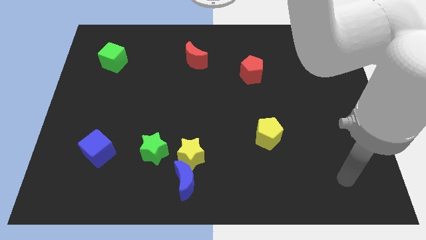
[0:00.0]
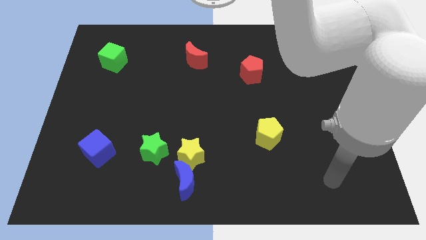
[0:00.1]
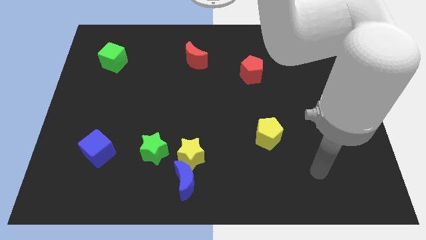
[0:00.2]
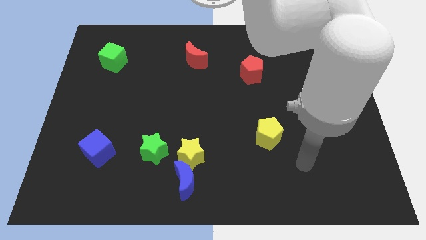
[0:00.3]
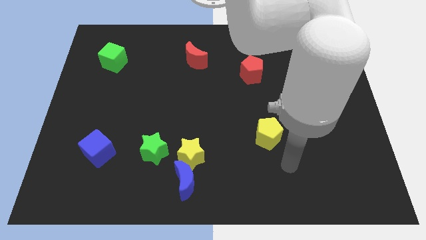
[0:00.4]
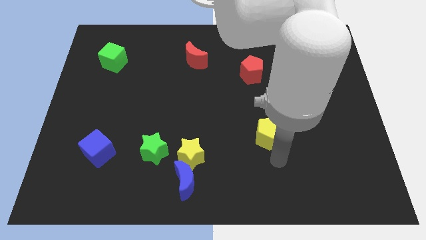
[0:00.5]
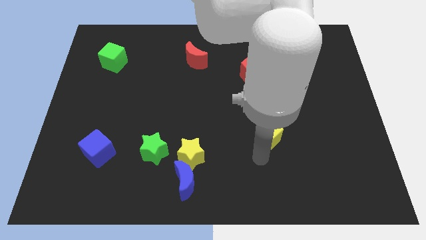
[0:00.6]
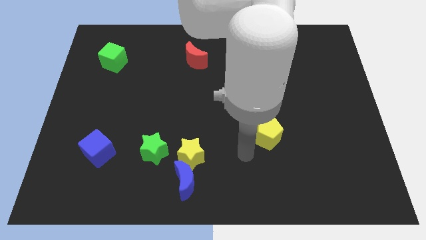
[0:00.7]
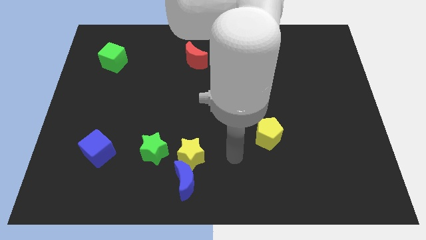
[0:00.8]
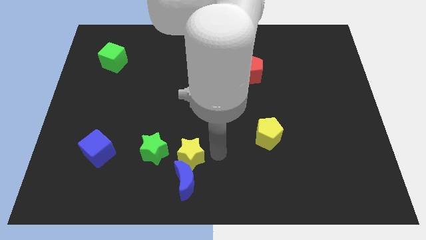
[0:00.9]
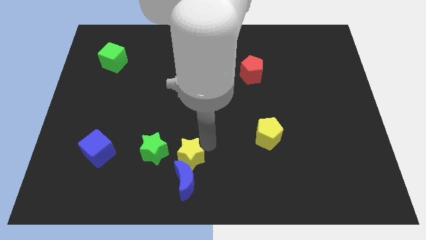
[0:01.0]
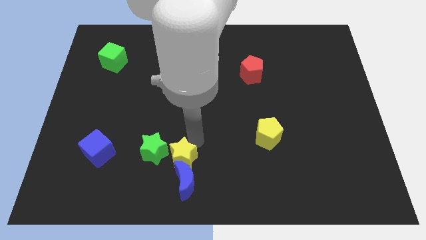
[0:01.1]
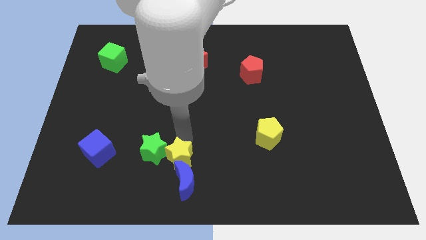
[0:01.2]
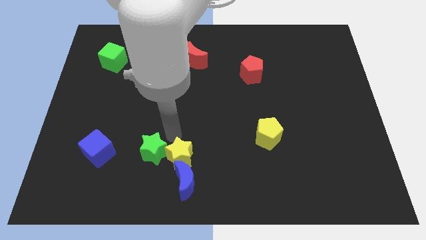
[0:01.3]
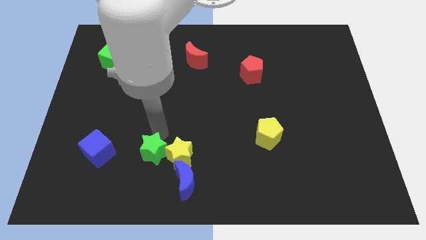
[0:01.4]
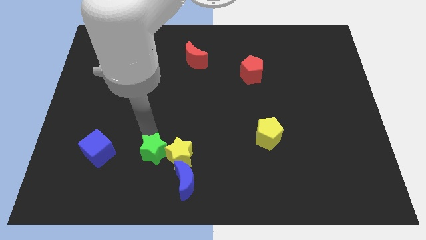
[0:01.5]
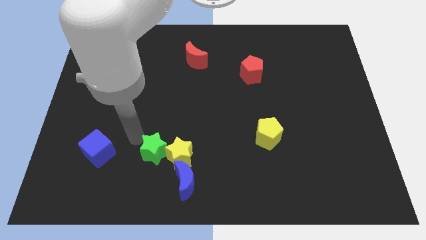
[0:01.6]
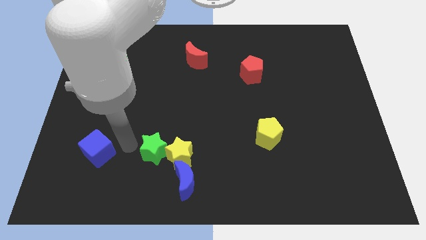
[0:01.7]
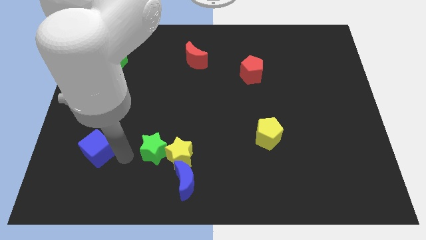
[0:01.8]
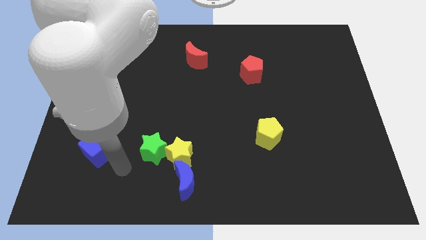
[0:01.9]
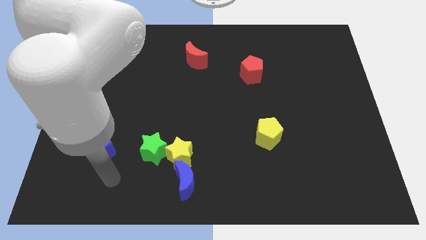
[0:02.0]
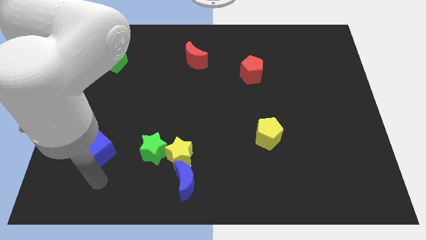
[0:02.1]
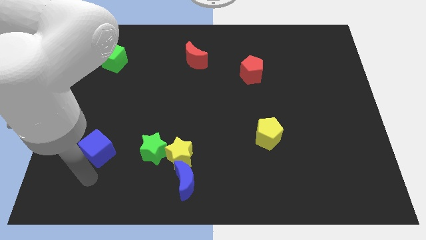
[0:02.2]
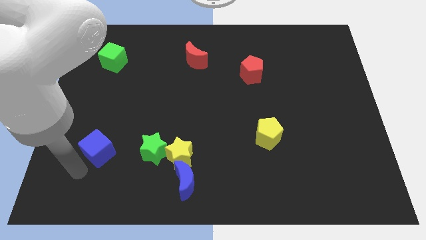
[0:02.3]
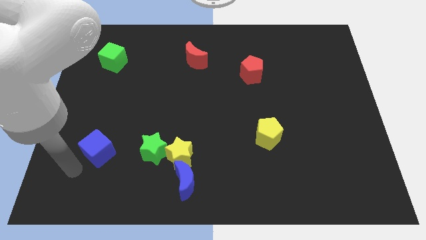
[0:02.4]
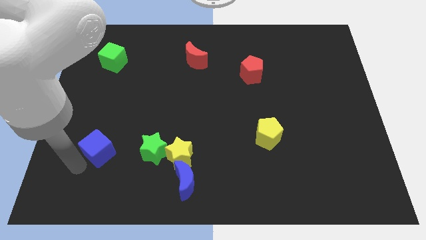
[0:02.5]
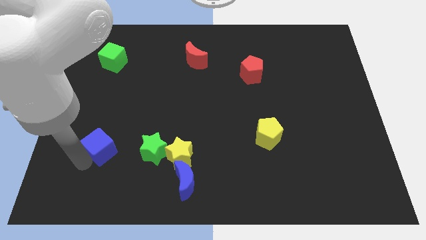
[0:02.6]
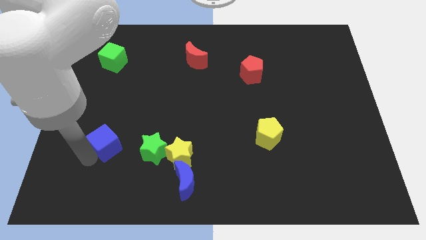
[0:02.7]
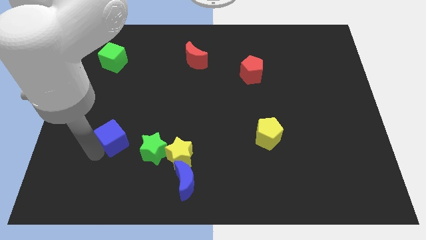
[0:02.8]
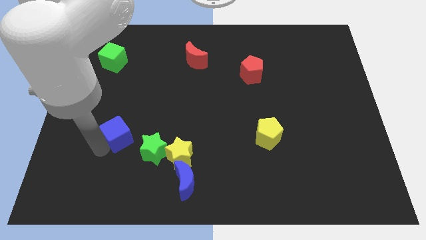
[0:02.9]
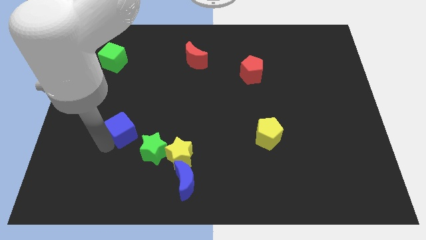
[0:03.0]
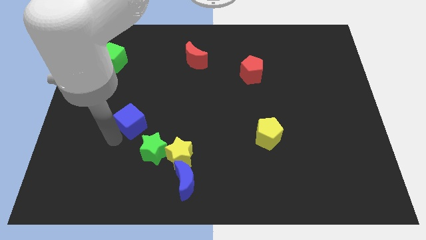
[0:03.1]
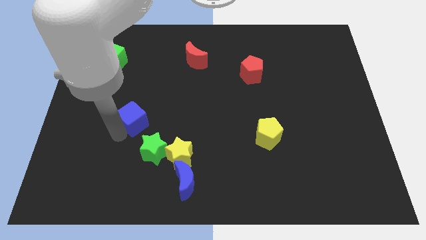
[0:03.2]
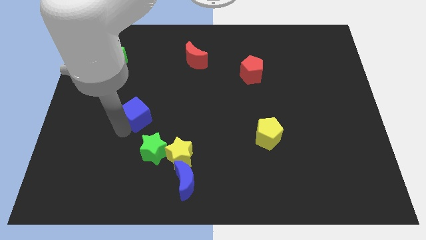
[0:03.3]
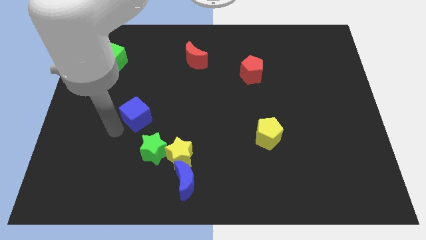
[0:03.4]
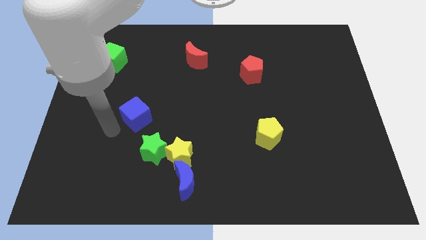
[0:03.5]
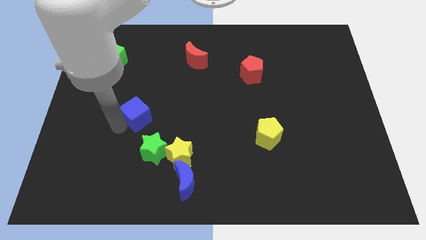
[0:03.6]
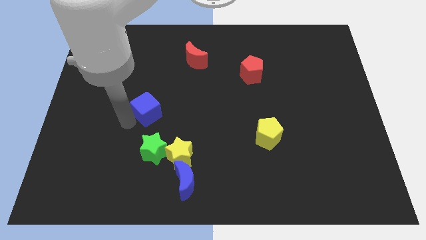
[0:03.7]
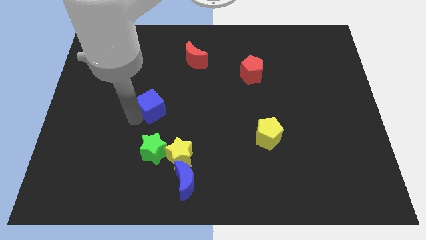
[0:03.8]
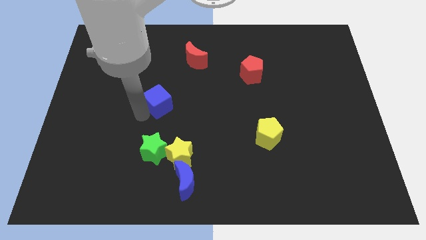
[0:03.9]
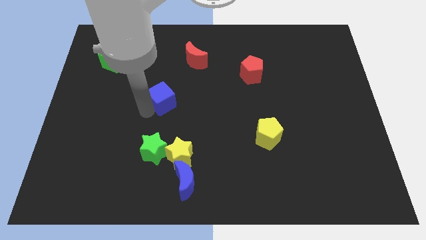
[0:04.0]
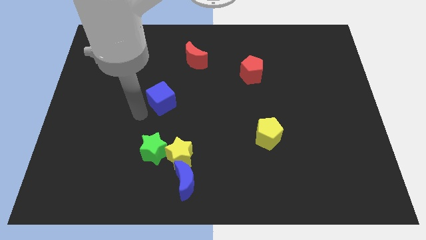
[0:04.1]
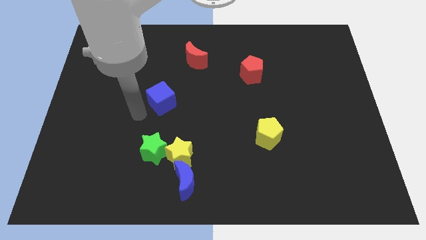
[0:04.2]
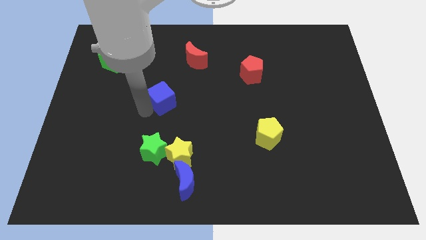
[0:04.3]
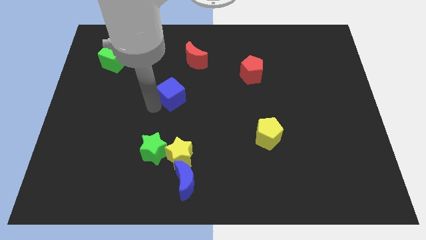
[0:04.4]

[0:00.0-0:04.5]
move the blue cube upwards and to the right diagonally

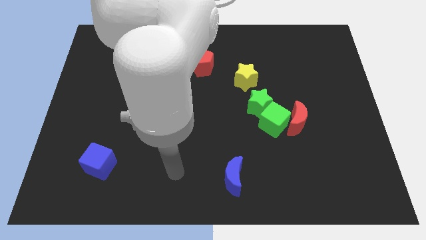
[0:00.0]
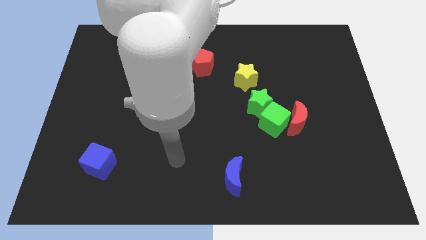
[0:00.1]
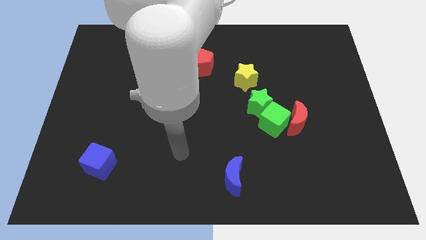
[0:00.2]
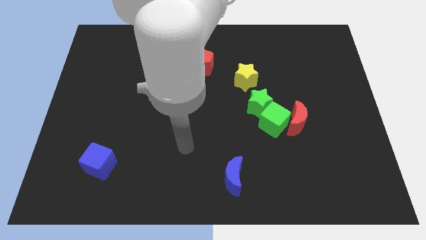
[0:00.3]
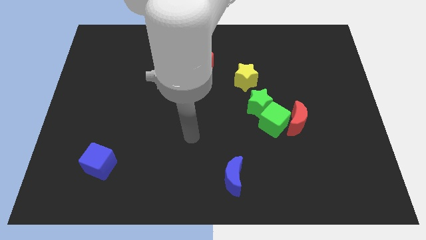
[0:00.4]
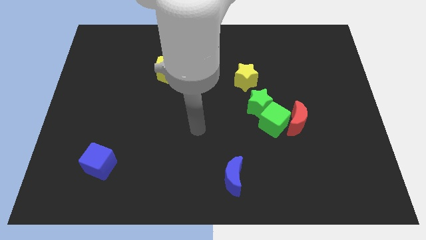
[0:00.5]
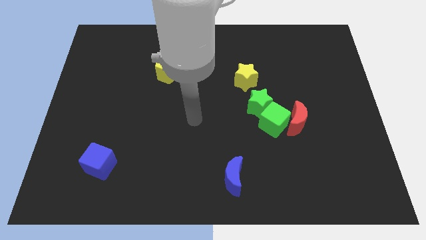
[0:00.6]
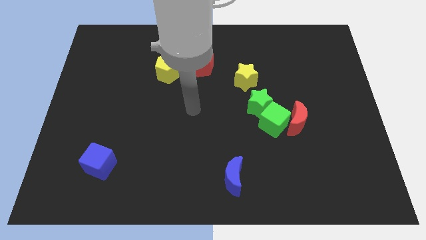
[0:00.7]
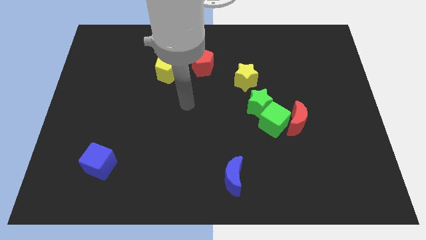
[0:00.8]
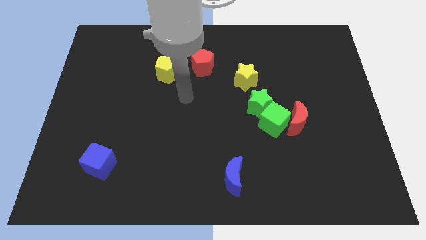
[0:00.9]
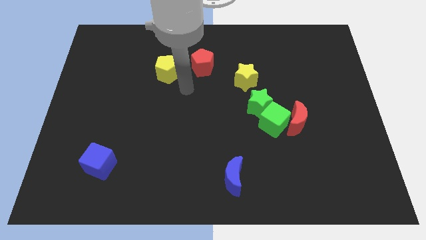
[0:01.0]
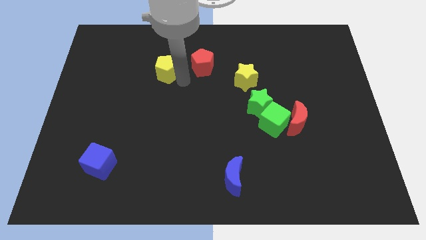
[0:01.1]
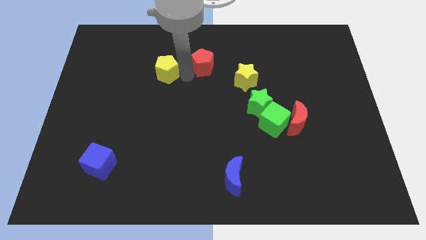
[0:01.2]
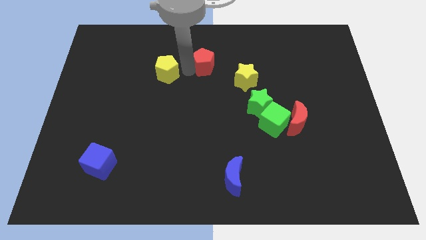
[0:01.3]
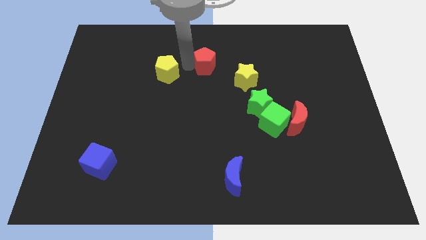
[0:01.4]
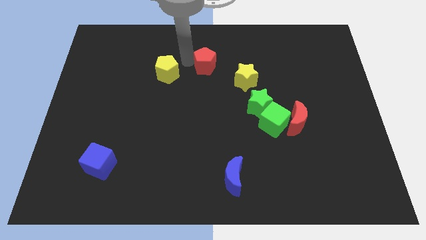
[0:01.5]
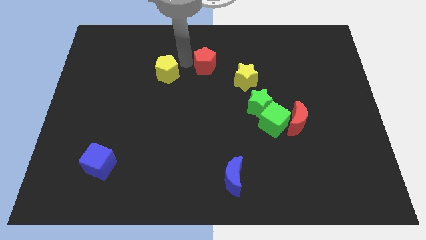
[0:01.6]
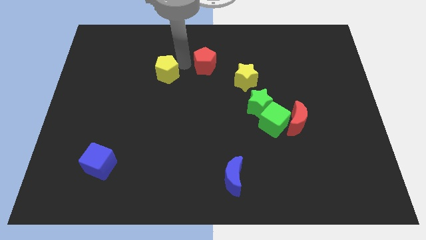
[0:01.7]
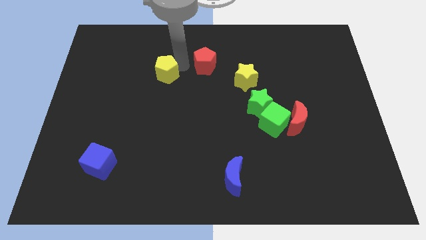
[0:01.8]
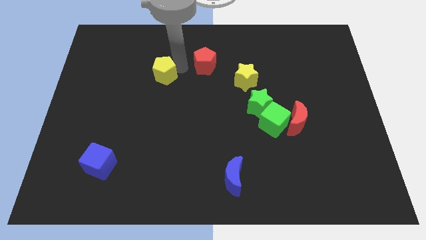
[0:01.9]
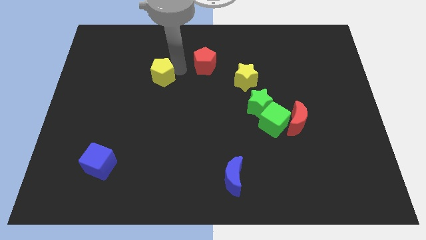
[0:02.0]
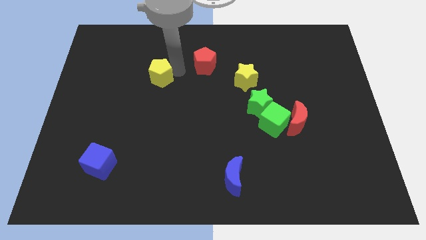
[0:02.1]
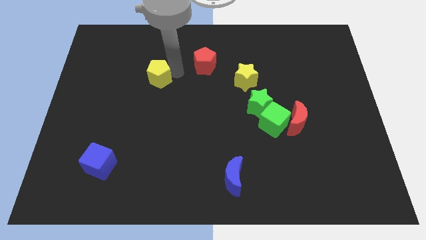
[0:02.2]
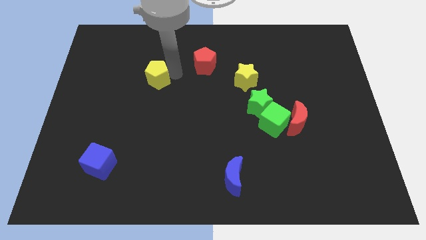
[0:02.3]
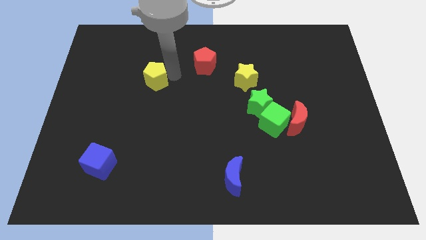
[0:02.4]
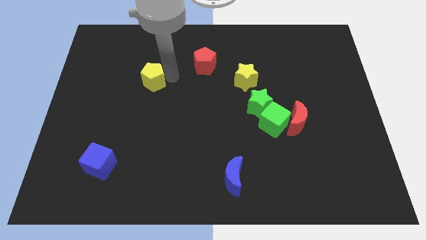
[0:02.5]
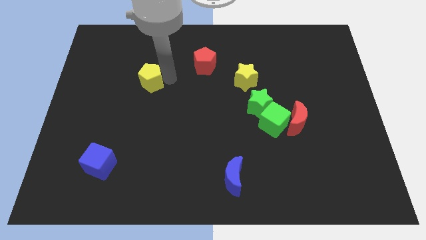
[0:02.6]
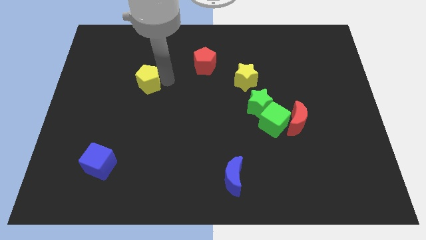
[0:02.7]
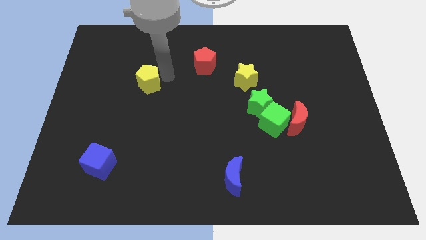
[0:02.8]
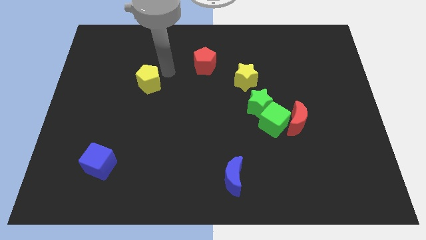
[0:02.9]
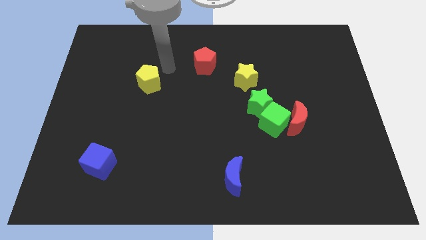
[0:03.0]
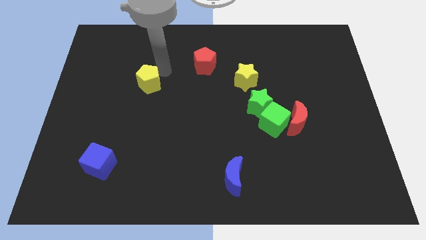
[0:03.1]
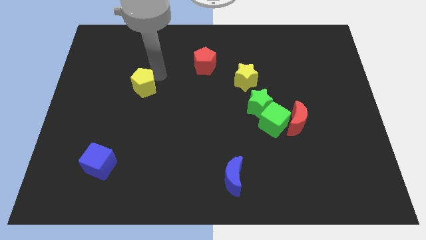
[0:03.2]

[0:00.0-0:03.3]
move the yellow pentagon down and to the left slightly

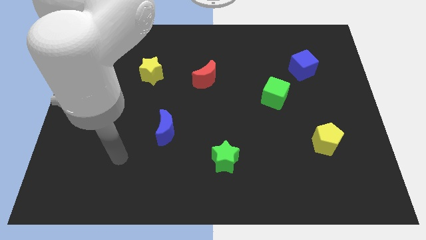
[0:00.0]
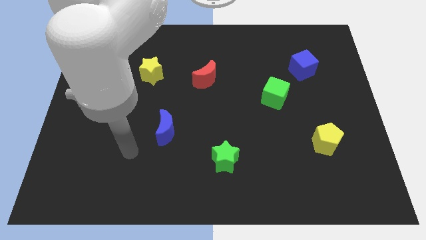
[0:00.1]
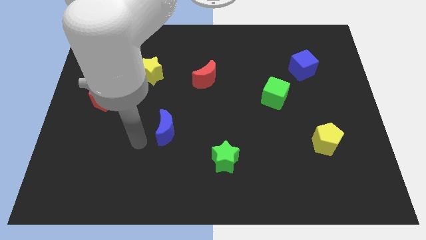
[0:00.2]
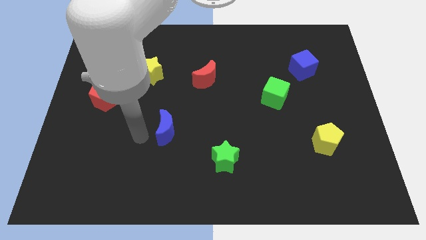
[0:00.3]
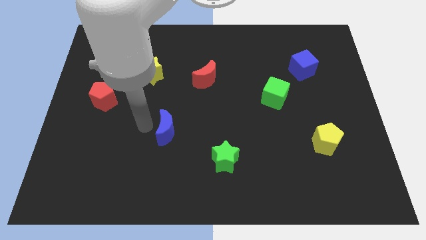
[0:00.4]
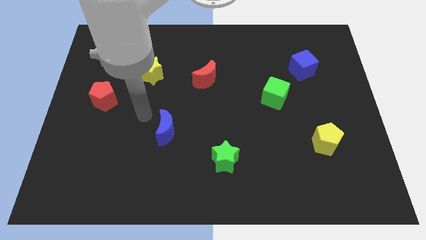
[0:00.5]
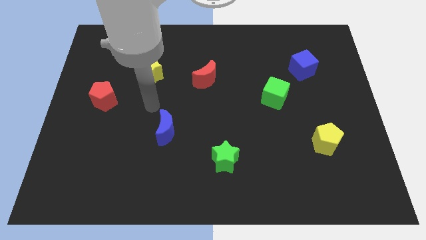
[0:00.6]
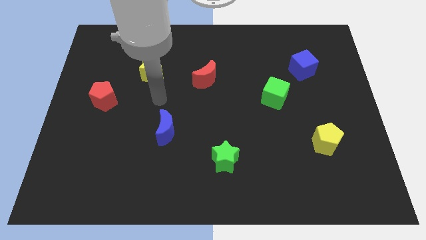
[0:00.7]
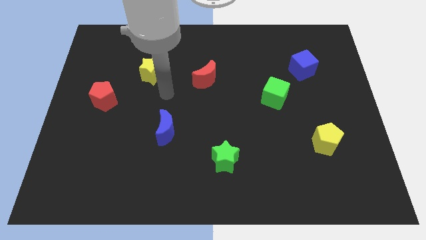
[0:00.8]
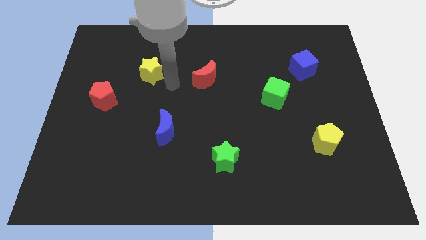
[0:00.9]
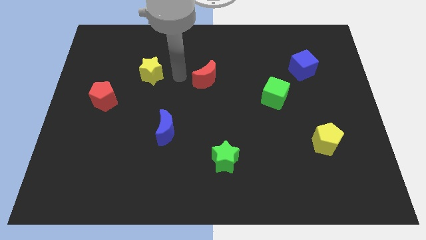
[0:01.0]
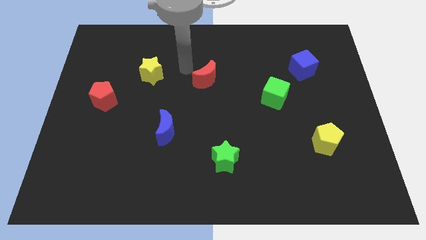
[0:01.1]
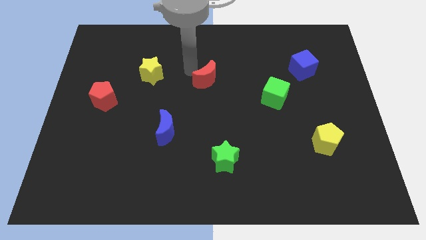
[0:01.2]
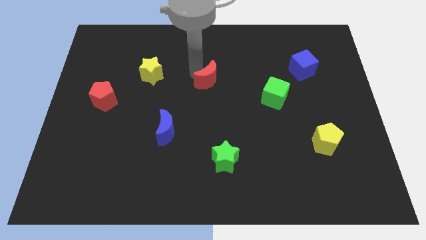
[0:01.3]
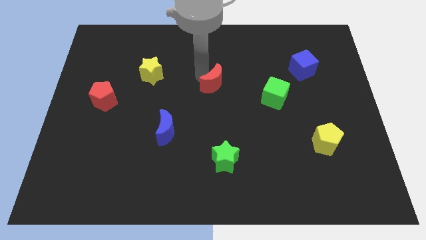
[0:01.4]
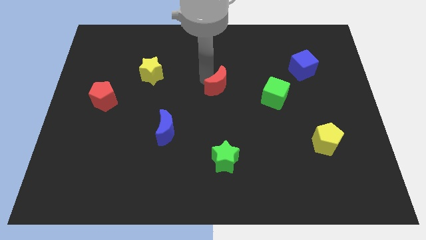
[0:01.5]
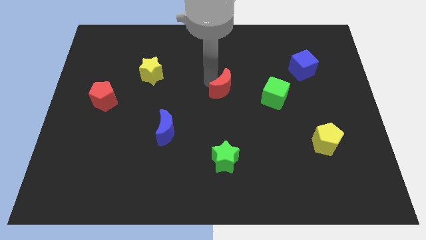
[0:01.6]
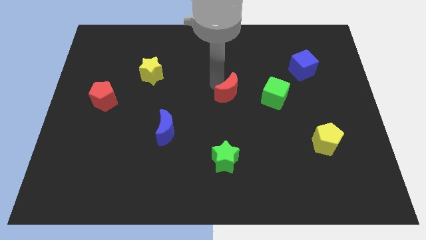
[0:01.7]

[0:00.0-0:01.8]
move the red moon down and right a little
